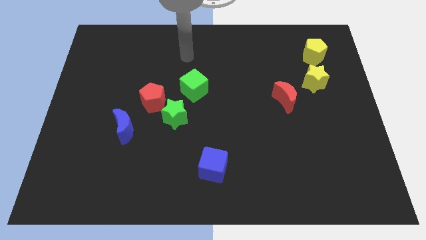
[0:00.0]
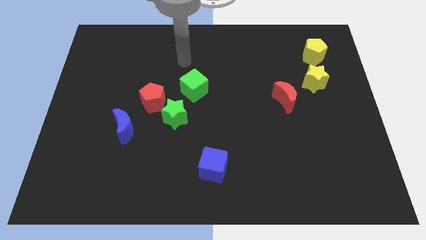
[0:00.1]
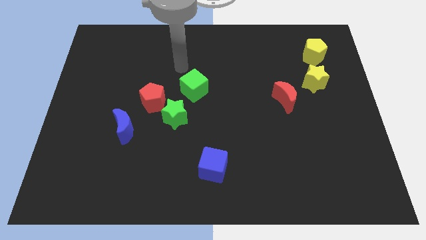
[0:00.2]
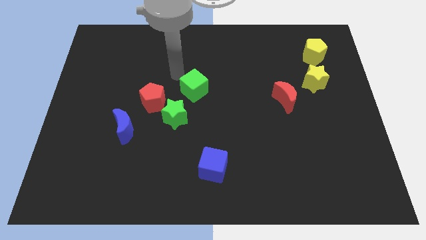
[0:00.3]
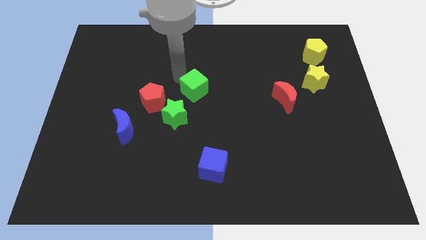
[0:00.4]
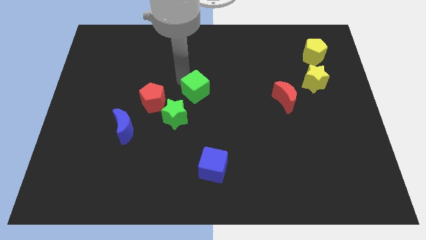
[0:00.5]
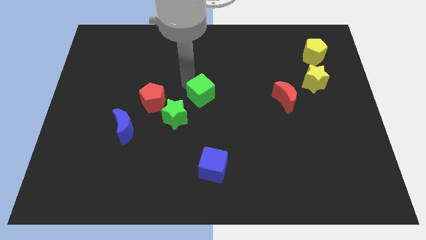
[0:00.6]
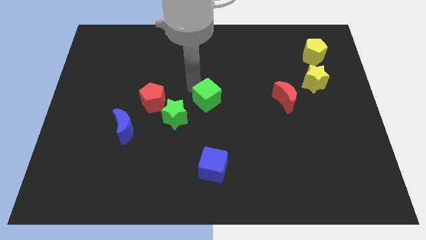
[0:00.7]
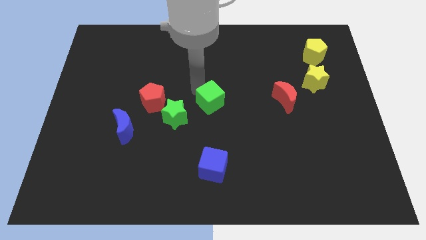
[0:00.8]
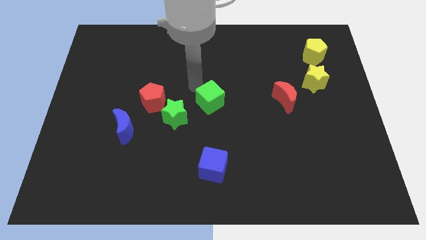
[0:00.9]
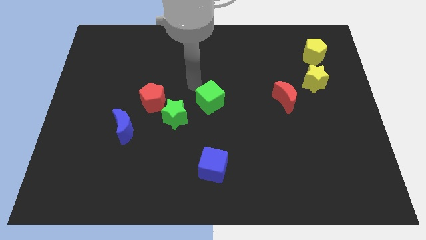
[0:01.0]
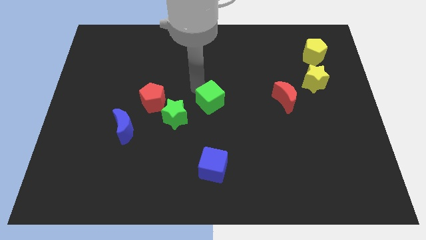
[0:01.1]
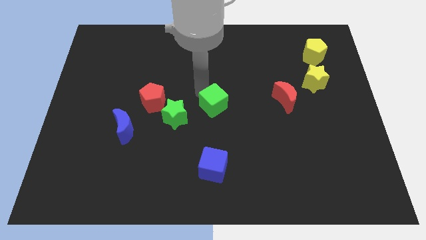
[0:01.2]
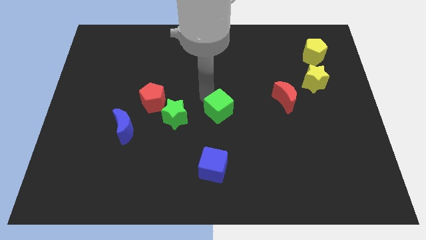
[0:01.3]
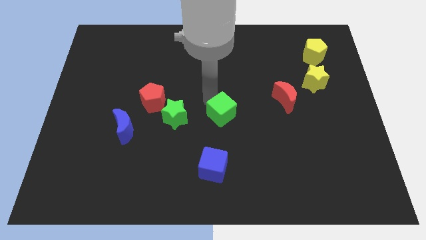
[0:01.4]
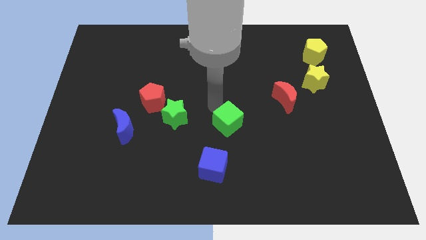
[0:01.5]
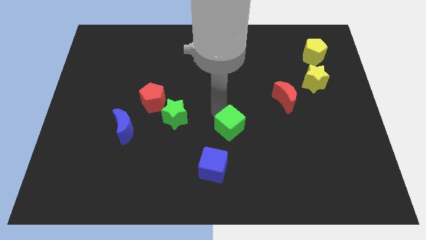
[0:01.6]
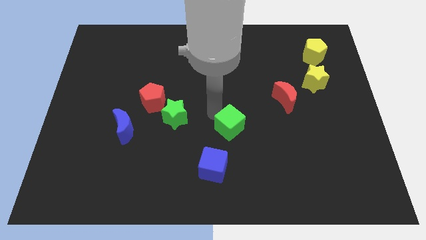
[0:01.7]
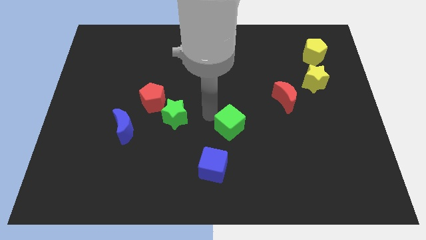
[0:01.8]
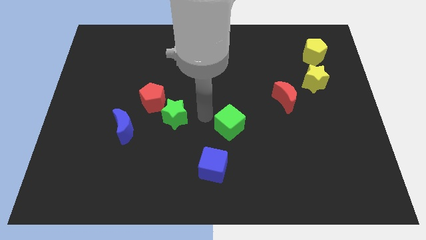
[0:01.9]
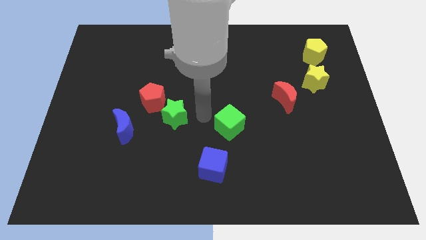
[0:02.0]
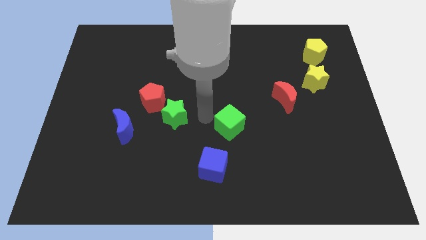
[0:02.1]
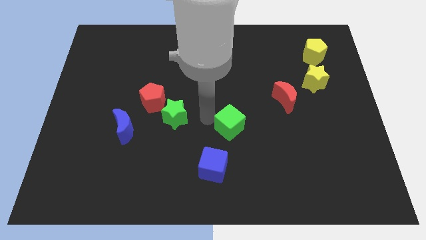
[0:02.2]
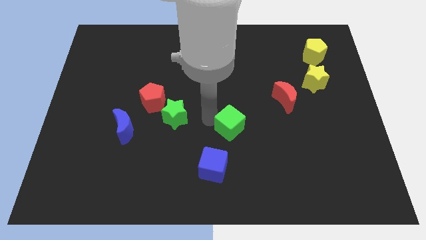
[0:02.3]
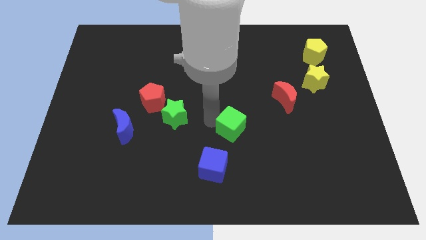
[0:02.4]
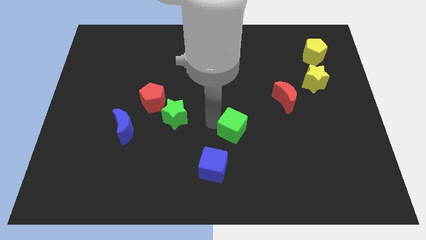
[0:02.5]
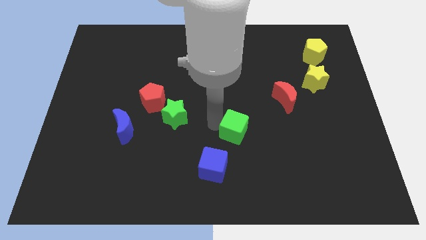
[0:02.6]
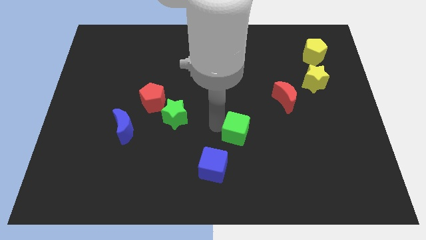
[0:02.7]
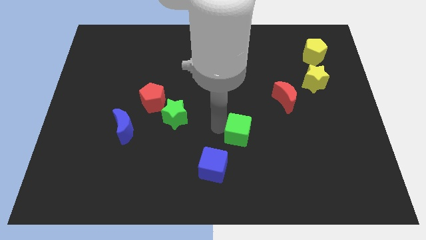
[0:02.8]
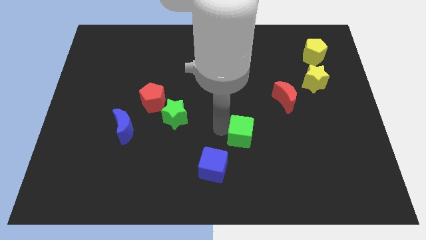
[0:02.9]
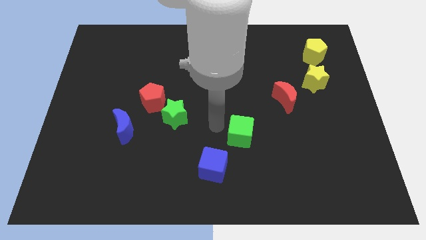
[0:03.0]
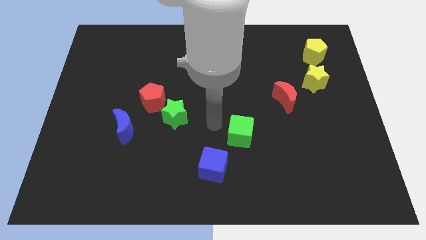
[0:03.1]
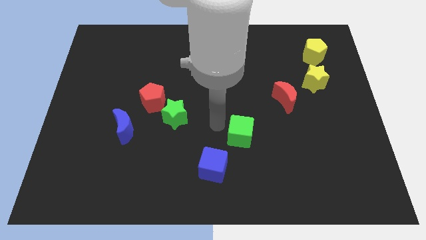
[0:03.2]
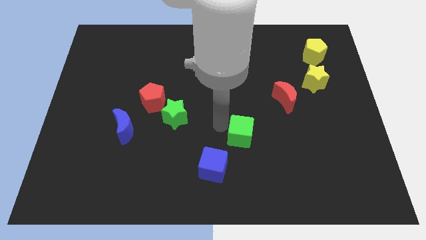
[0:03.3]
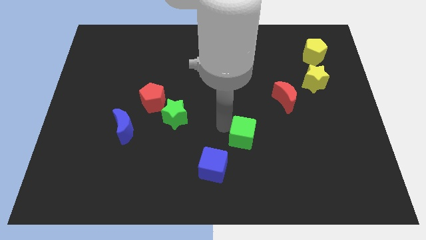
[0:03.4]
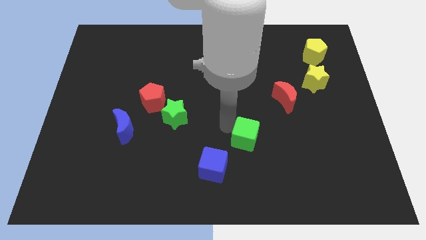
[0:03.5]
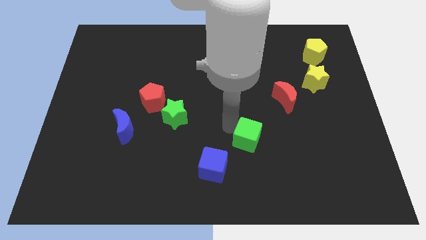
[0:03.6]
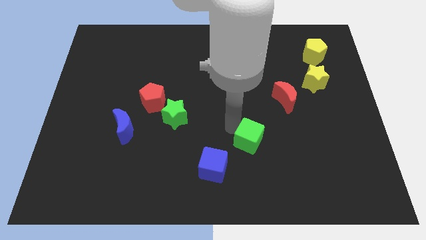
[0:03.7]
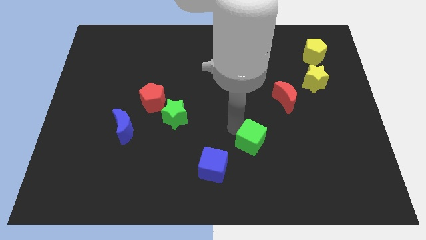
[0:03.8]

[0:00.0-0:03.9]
move the green cube down and right

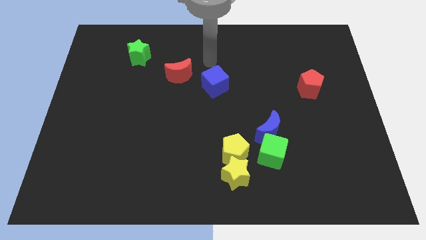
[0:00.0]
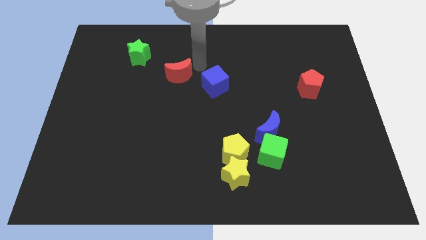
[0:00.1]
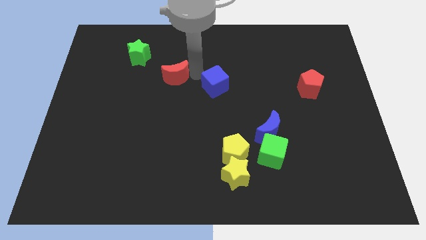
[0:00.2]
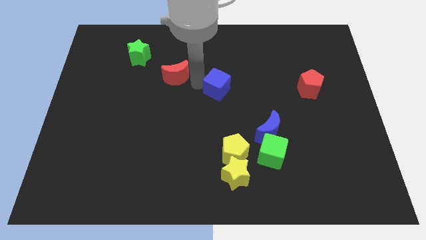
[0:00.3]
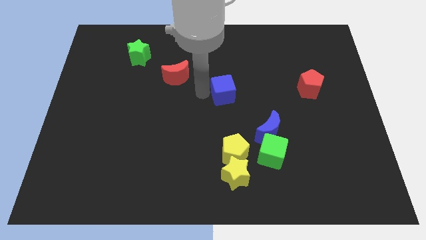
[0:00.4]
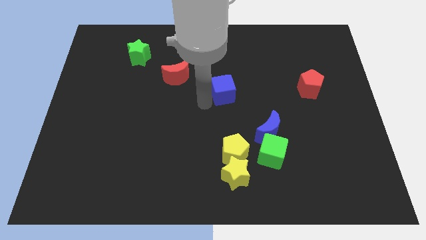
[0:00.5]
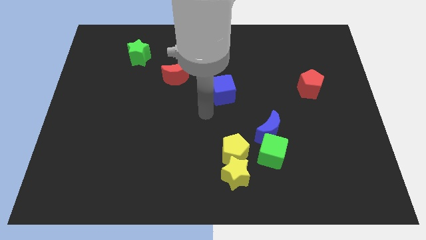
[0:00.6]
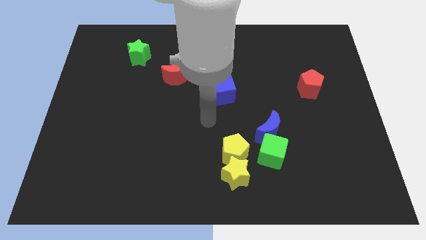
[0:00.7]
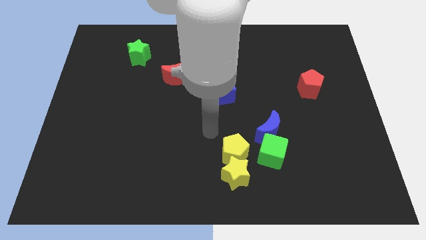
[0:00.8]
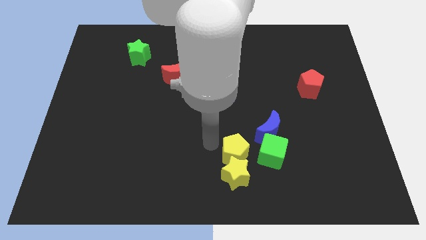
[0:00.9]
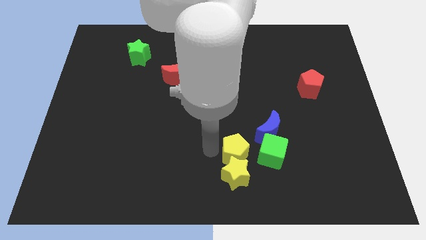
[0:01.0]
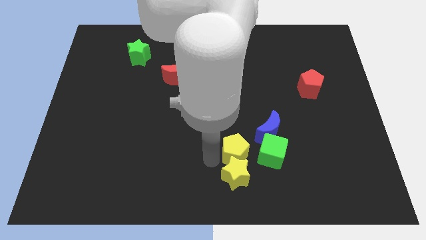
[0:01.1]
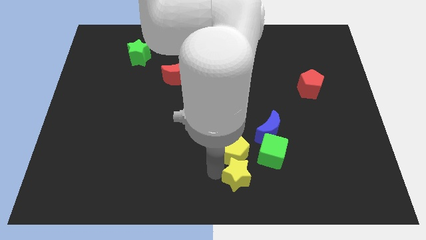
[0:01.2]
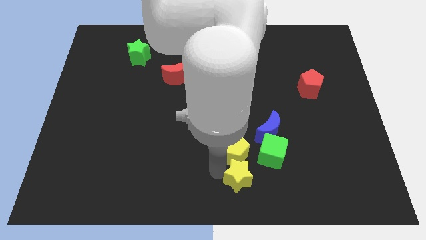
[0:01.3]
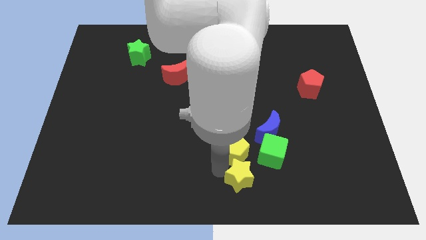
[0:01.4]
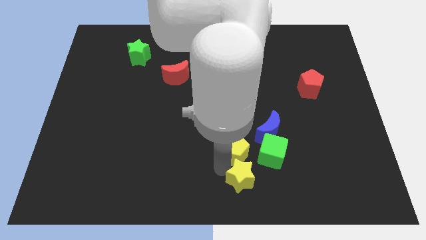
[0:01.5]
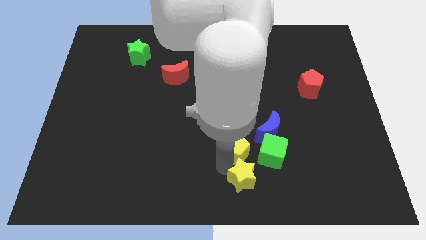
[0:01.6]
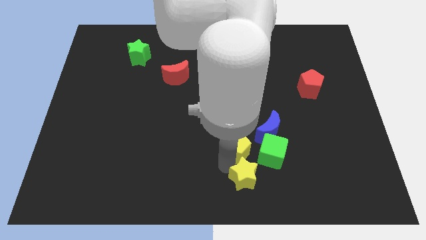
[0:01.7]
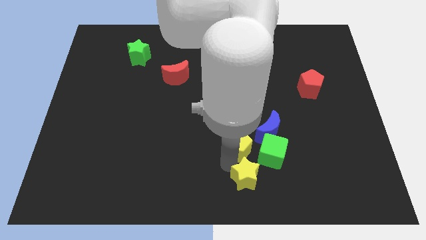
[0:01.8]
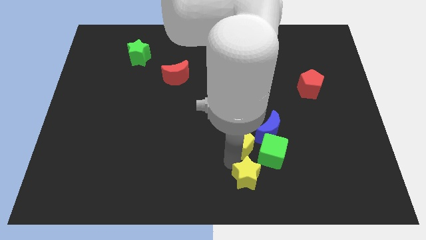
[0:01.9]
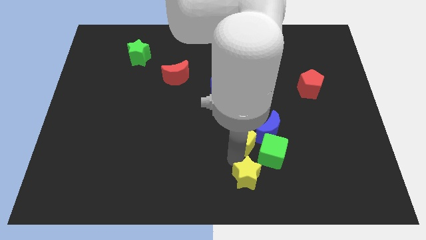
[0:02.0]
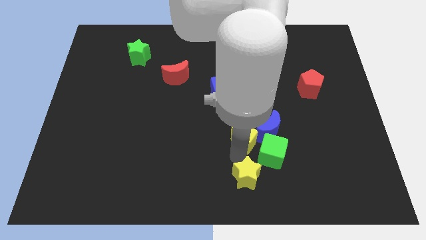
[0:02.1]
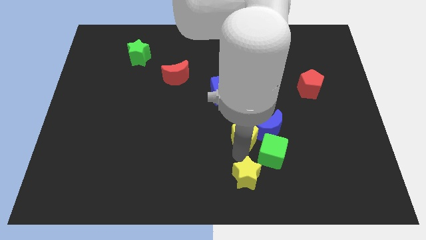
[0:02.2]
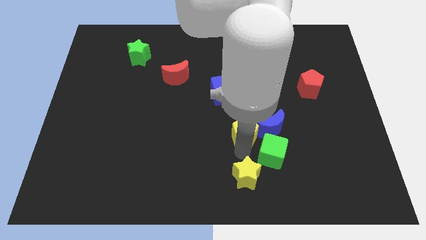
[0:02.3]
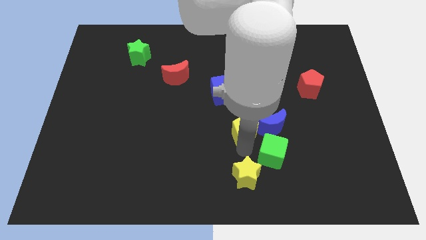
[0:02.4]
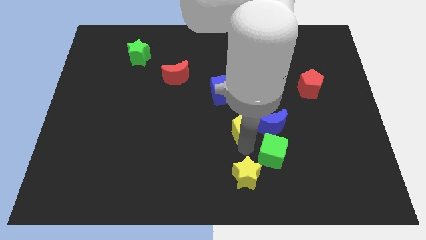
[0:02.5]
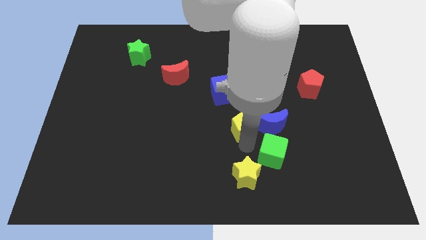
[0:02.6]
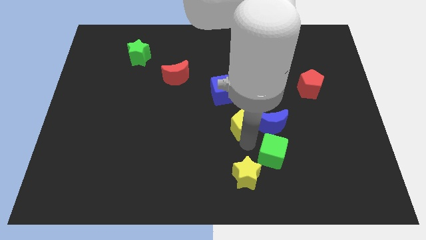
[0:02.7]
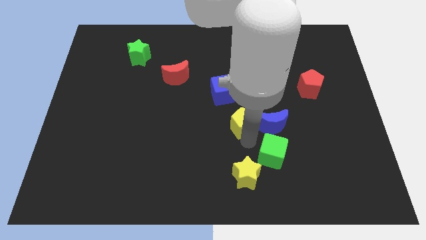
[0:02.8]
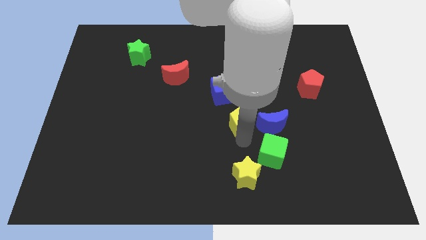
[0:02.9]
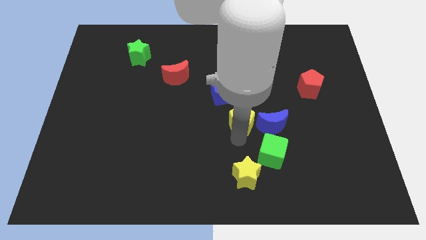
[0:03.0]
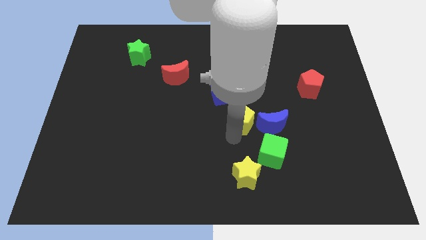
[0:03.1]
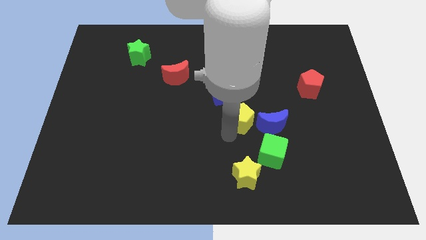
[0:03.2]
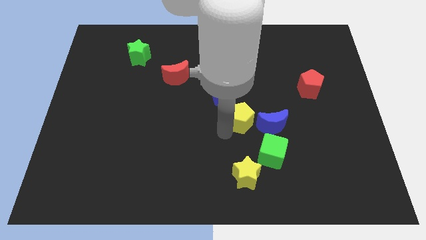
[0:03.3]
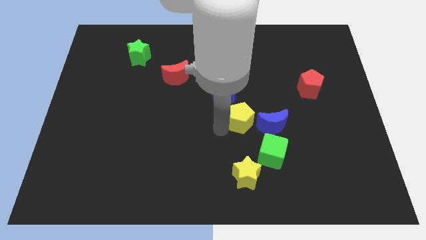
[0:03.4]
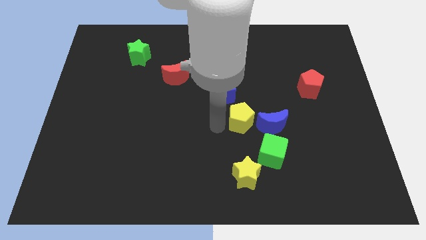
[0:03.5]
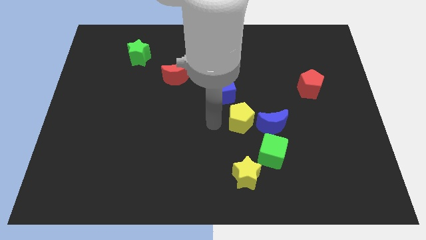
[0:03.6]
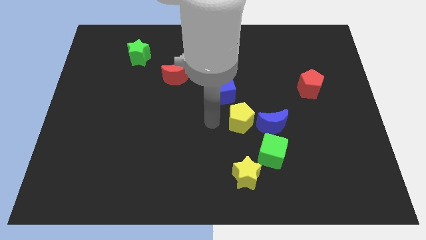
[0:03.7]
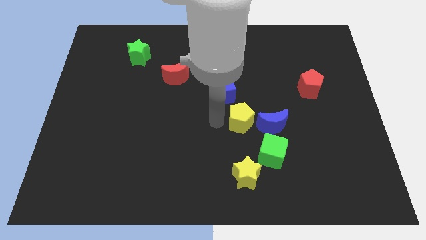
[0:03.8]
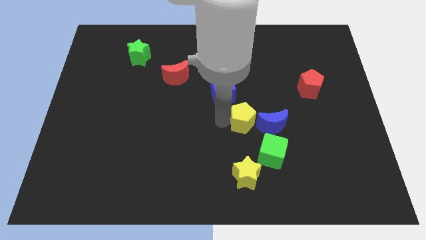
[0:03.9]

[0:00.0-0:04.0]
slightly push the yellow pentagon up and then to the right

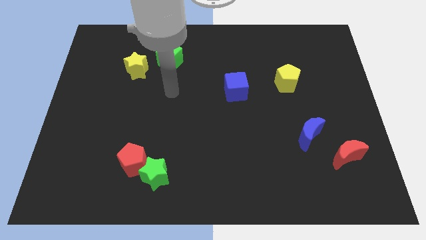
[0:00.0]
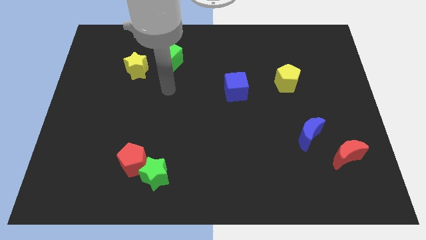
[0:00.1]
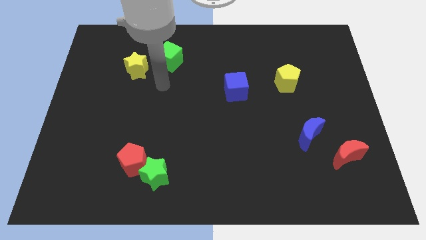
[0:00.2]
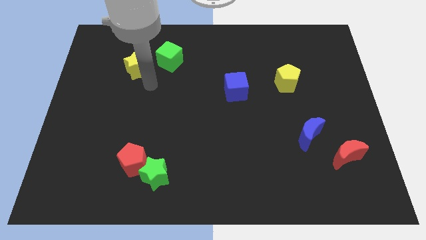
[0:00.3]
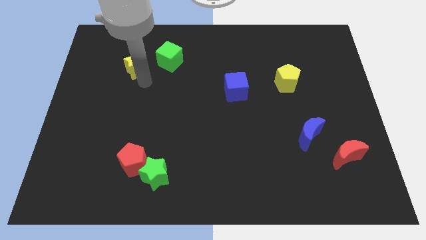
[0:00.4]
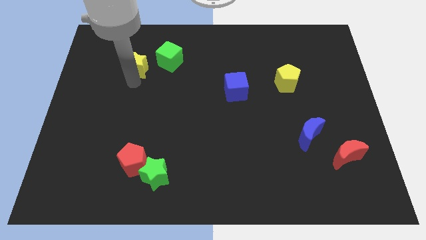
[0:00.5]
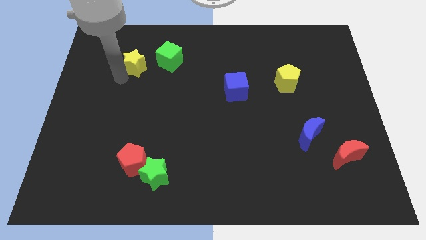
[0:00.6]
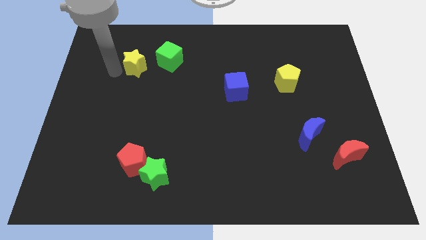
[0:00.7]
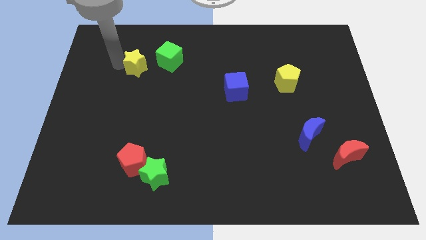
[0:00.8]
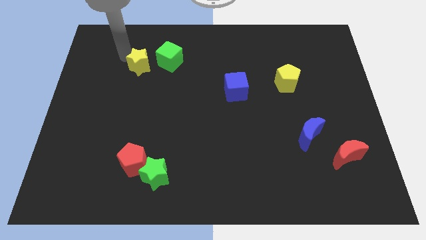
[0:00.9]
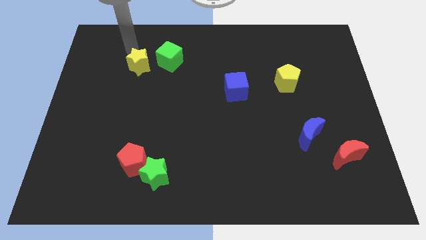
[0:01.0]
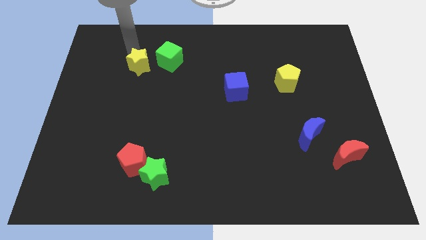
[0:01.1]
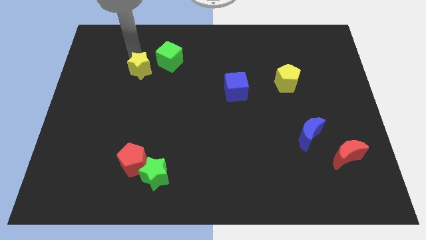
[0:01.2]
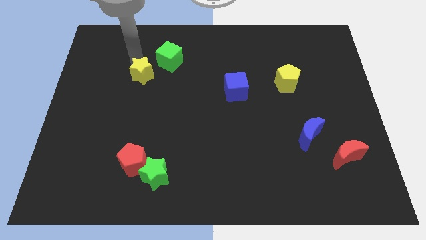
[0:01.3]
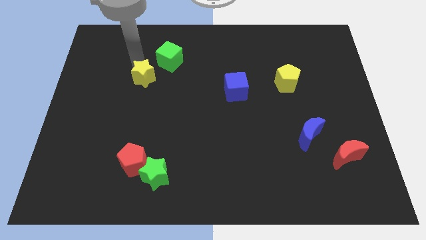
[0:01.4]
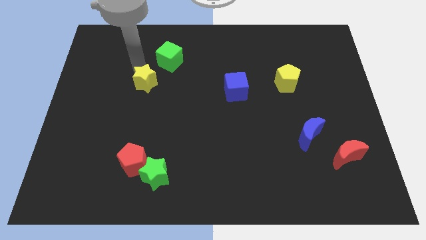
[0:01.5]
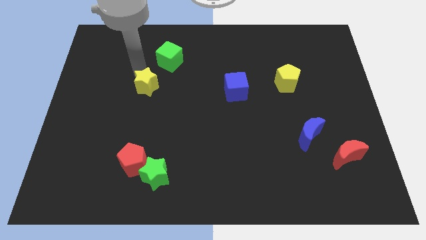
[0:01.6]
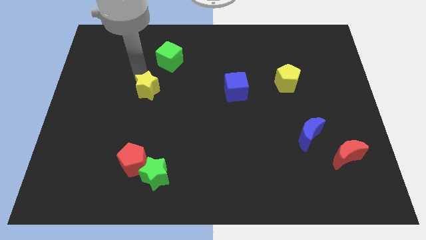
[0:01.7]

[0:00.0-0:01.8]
push the yellow star diagonally downwards and right somewhat
